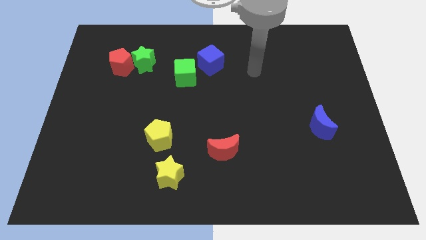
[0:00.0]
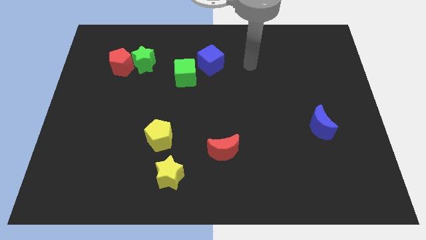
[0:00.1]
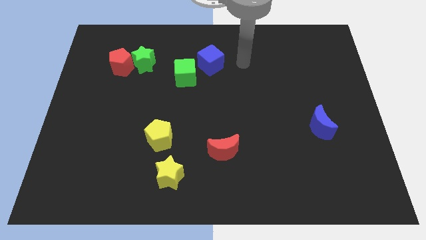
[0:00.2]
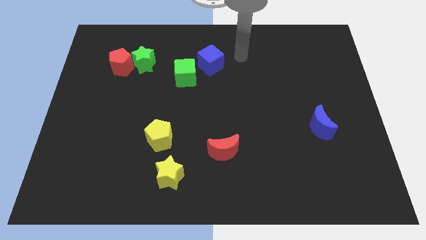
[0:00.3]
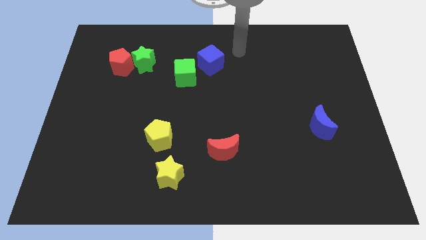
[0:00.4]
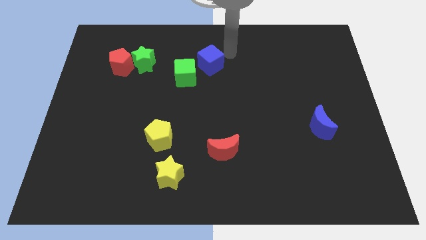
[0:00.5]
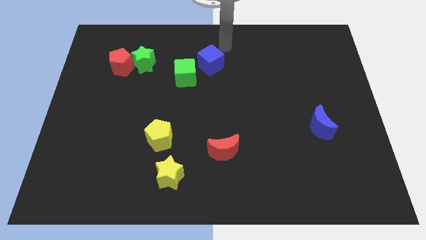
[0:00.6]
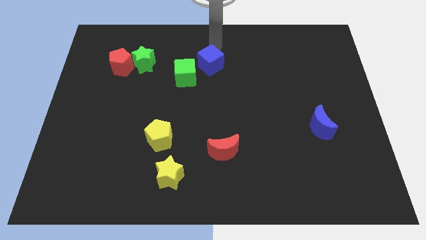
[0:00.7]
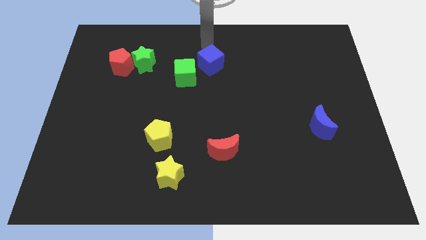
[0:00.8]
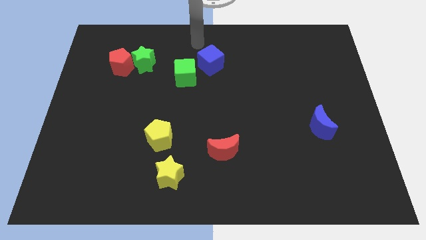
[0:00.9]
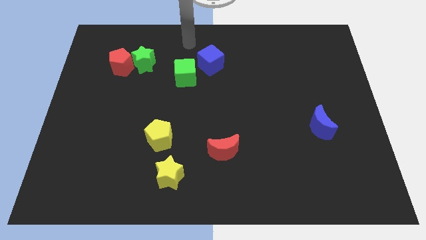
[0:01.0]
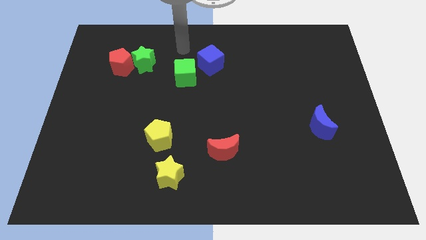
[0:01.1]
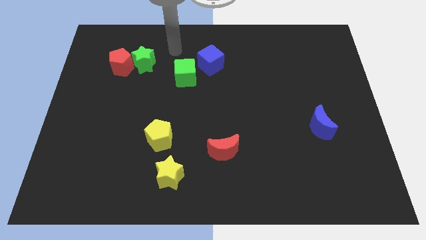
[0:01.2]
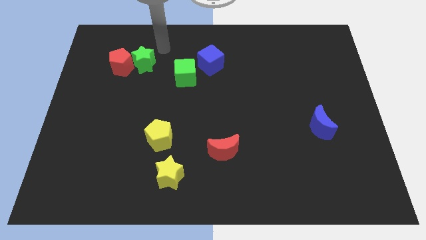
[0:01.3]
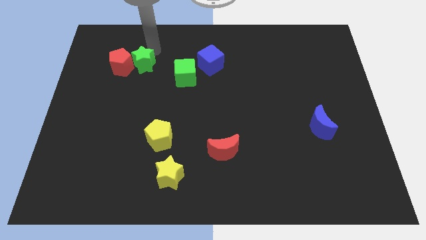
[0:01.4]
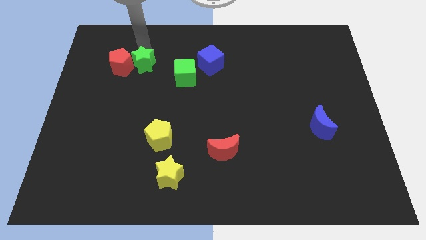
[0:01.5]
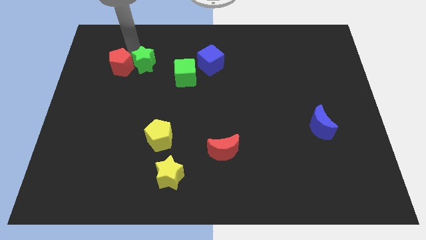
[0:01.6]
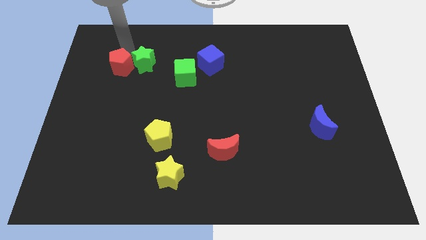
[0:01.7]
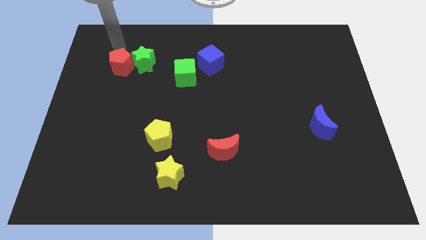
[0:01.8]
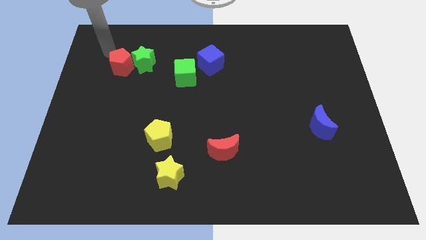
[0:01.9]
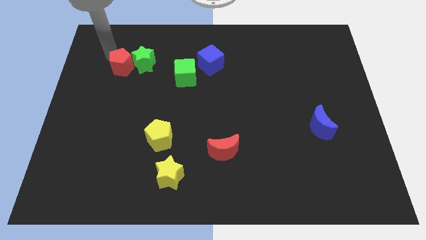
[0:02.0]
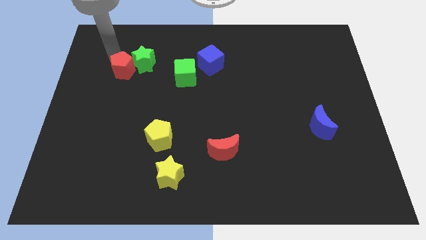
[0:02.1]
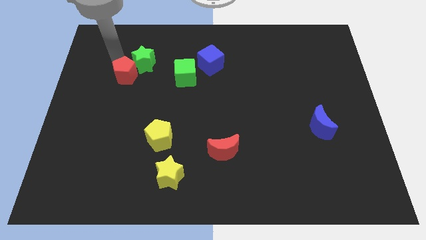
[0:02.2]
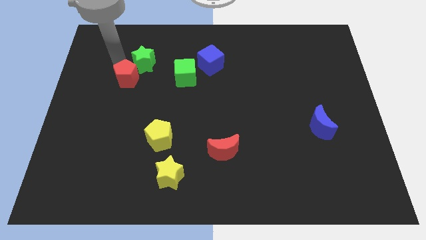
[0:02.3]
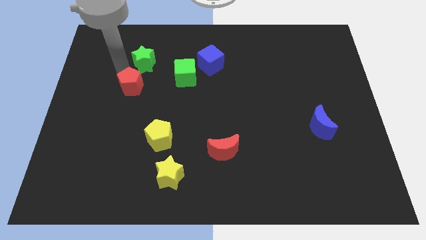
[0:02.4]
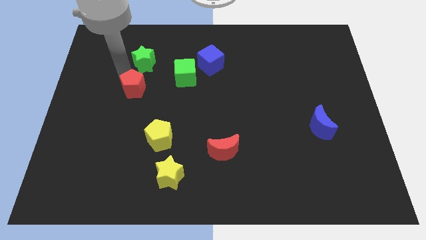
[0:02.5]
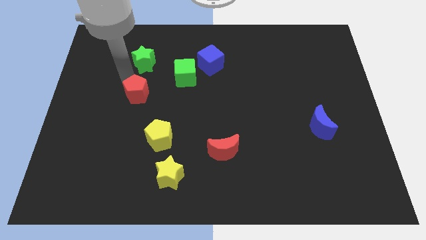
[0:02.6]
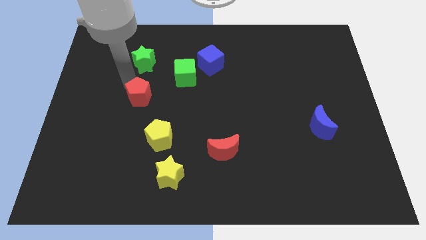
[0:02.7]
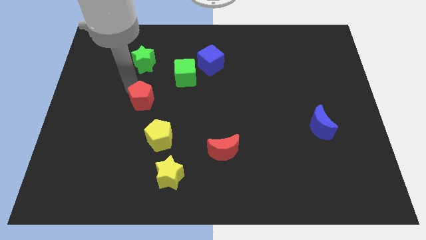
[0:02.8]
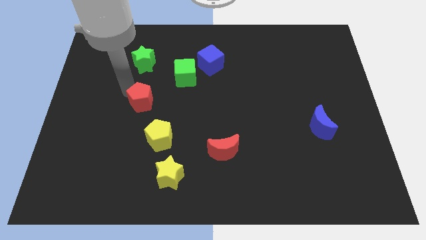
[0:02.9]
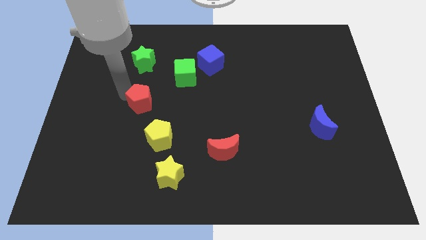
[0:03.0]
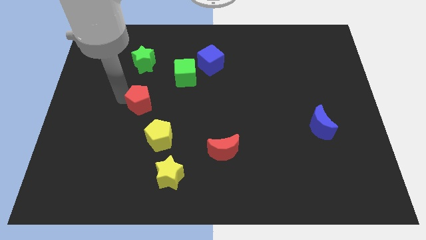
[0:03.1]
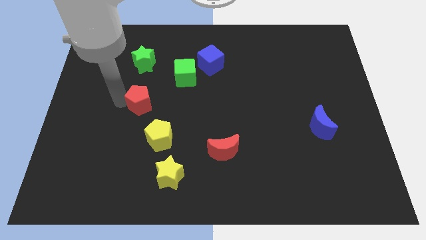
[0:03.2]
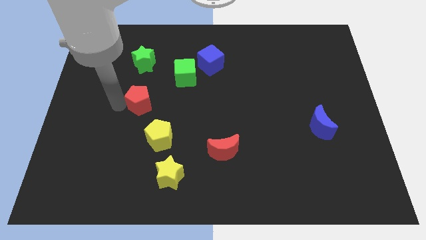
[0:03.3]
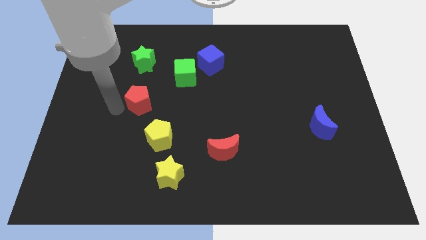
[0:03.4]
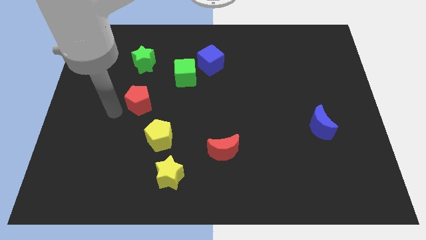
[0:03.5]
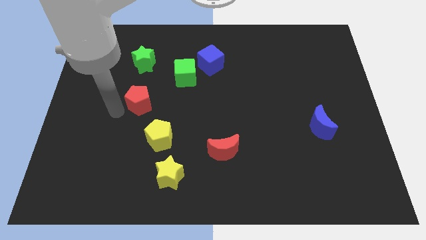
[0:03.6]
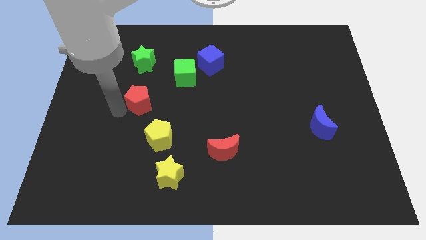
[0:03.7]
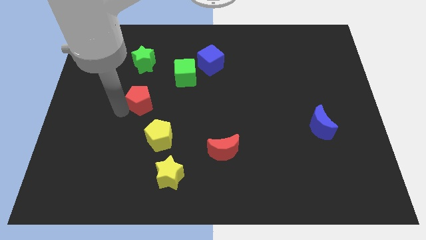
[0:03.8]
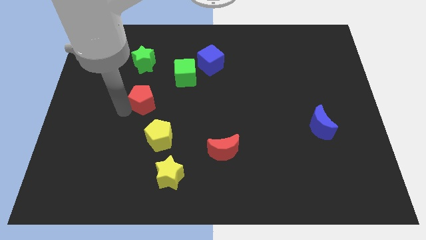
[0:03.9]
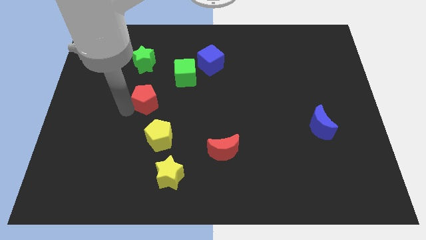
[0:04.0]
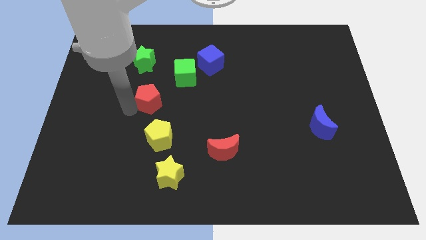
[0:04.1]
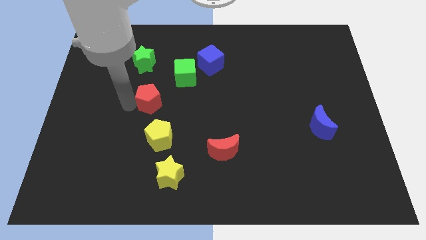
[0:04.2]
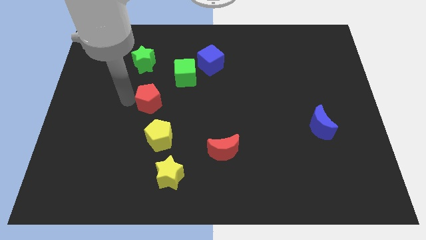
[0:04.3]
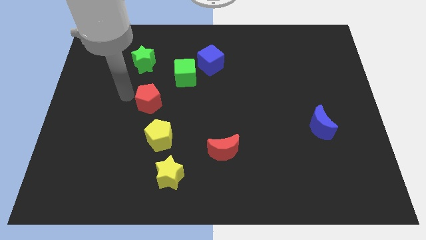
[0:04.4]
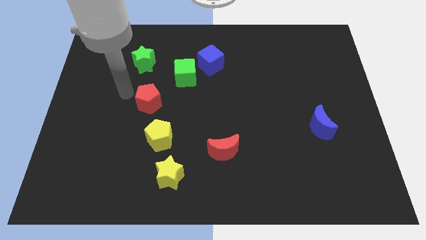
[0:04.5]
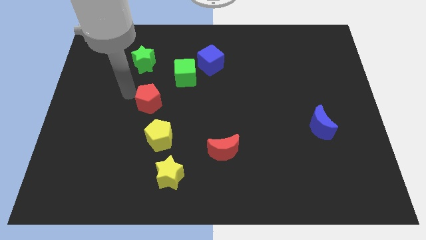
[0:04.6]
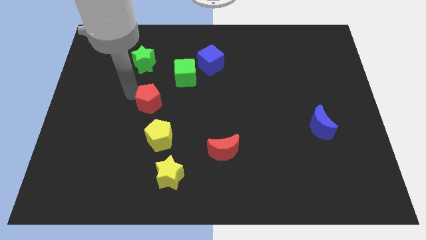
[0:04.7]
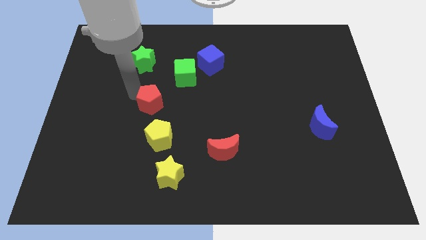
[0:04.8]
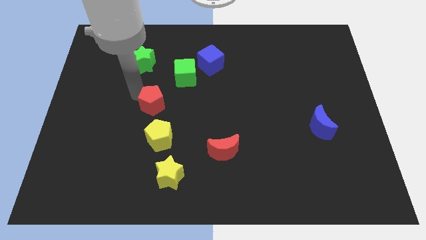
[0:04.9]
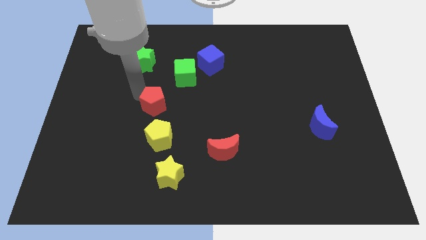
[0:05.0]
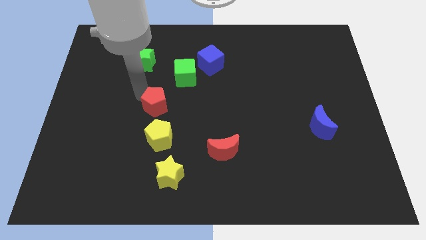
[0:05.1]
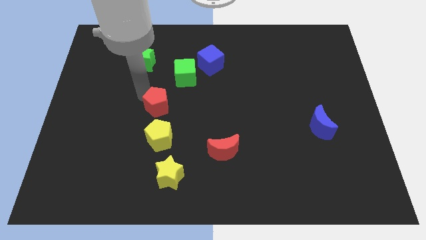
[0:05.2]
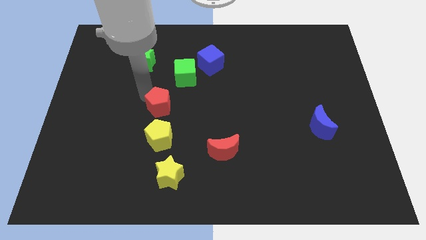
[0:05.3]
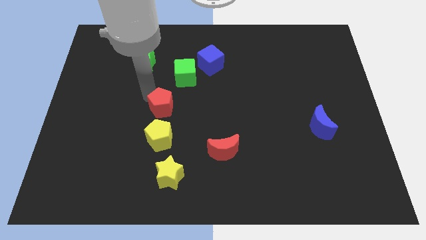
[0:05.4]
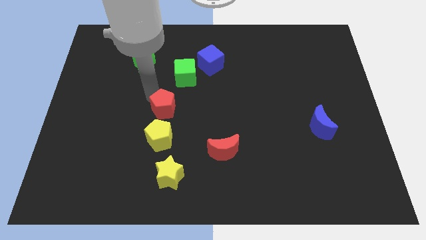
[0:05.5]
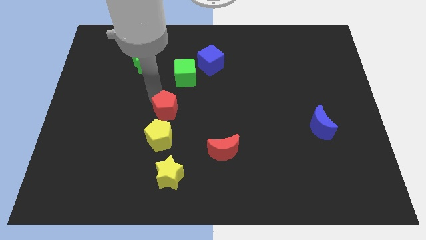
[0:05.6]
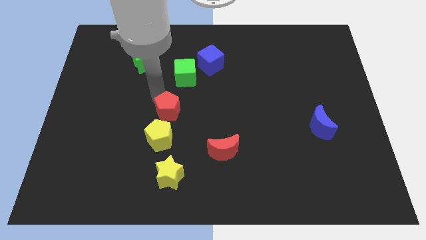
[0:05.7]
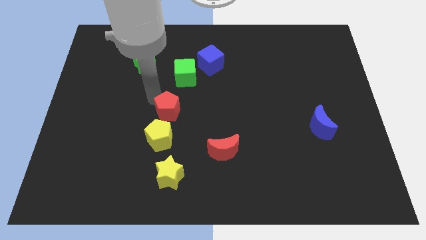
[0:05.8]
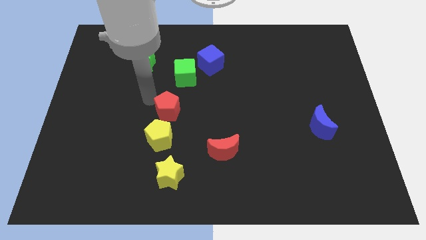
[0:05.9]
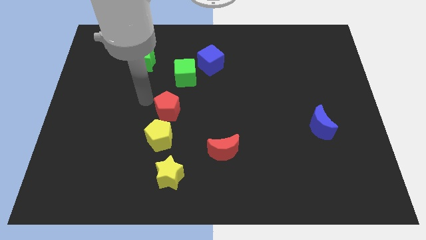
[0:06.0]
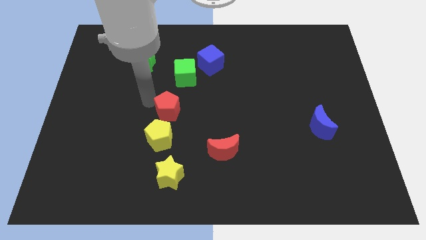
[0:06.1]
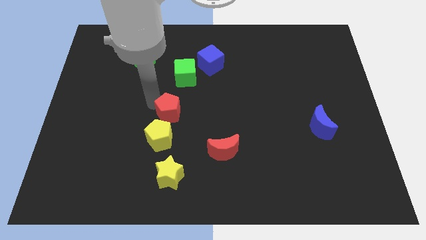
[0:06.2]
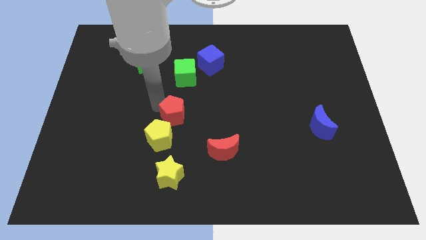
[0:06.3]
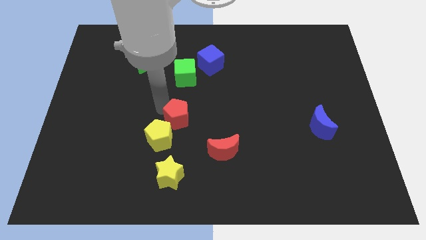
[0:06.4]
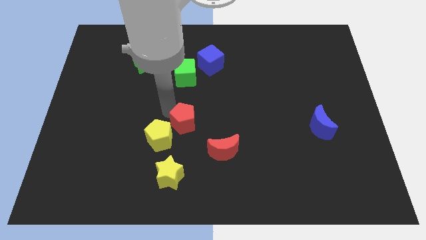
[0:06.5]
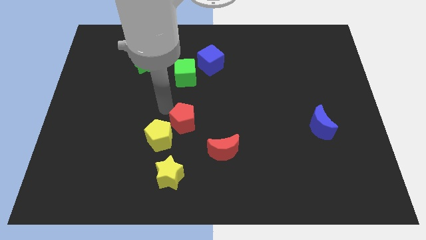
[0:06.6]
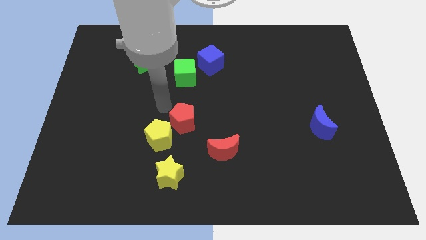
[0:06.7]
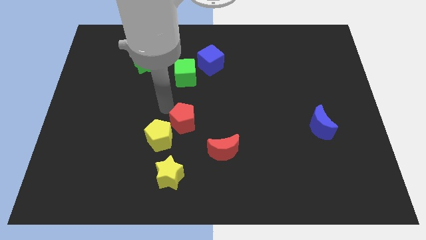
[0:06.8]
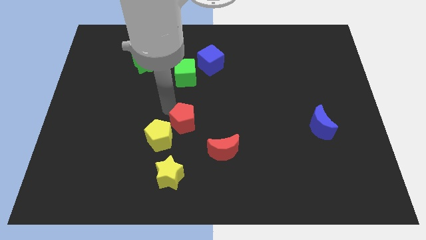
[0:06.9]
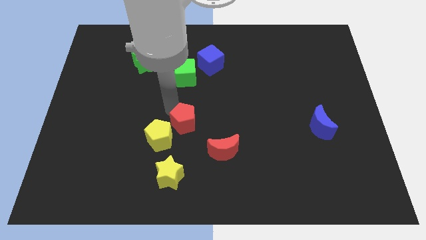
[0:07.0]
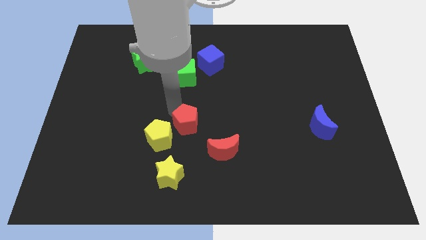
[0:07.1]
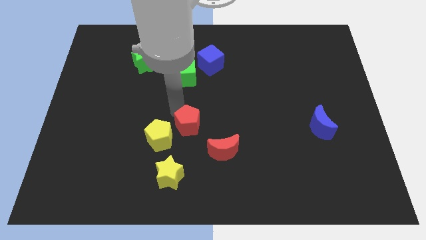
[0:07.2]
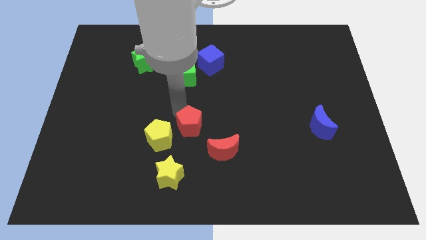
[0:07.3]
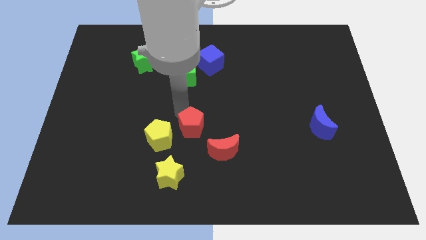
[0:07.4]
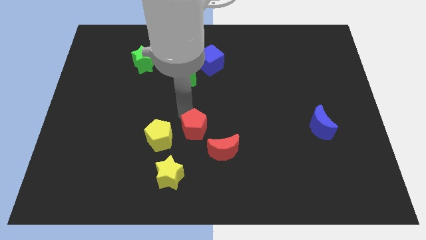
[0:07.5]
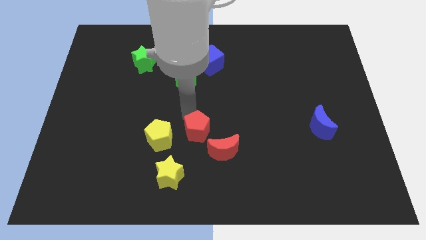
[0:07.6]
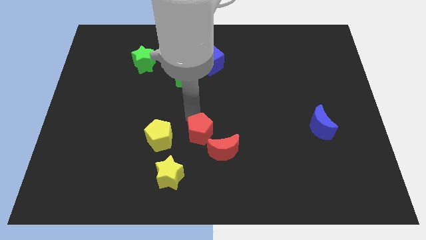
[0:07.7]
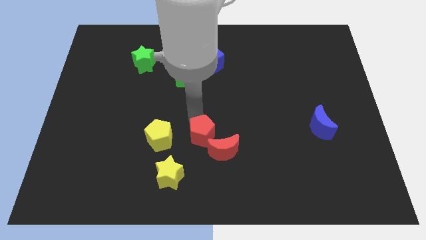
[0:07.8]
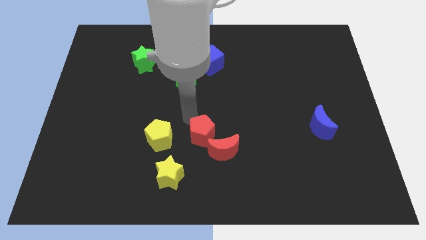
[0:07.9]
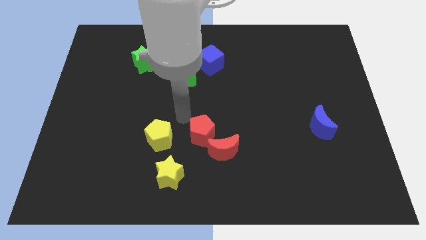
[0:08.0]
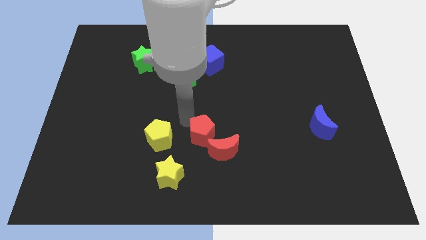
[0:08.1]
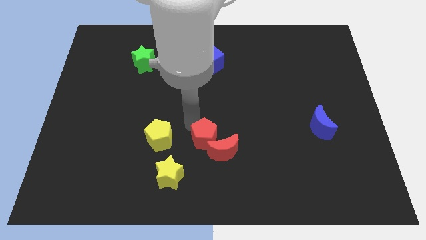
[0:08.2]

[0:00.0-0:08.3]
slide the red pentagon to the red moon
